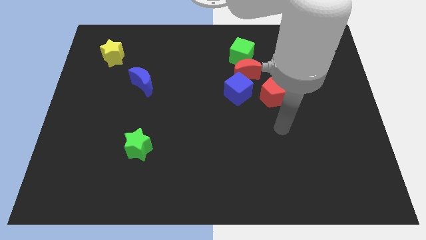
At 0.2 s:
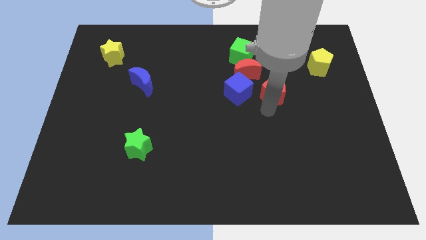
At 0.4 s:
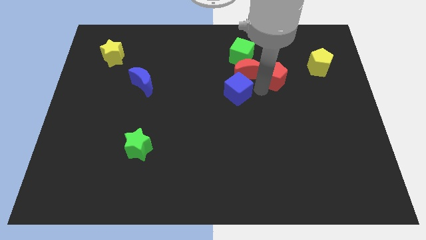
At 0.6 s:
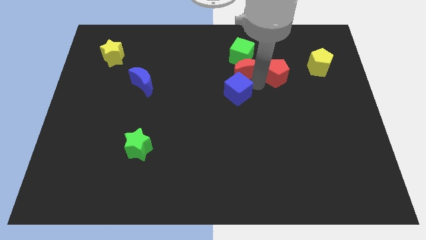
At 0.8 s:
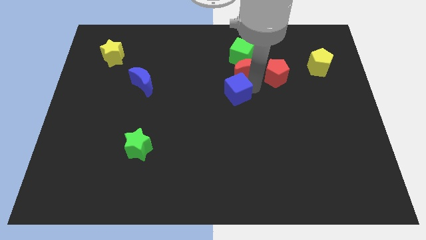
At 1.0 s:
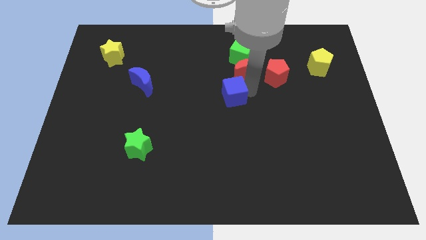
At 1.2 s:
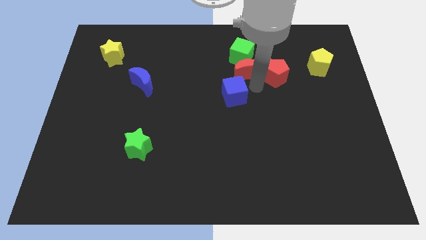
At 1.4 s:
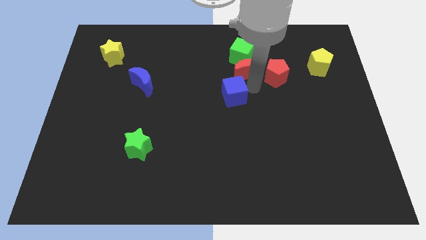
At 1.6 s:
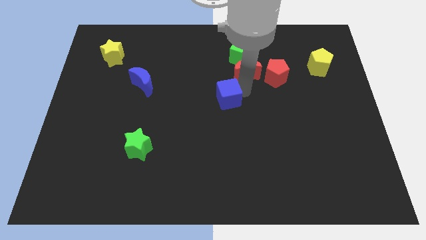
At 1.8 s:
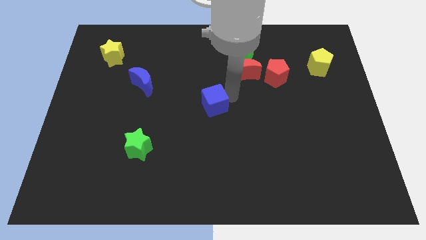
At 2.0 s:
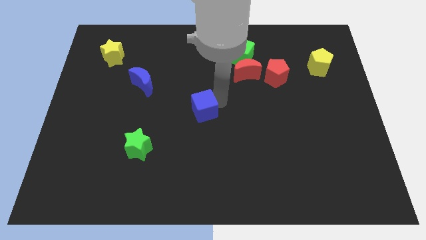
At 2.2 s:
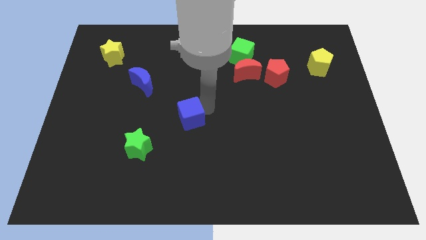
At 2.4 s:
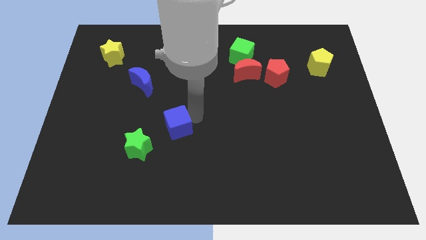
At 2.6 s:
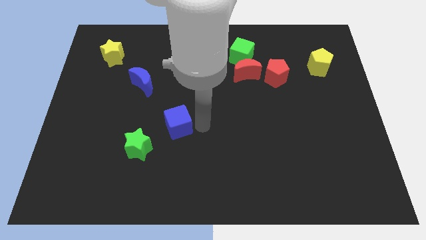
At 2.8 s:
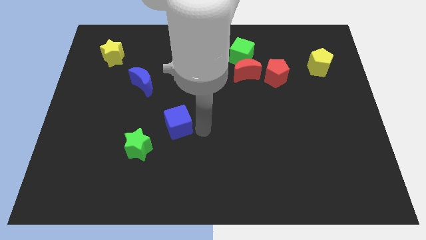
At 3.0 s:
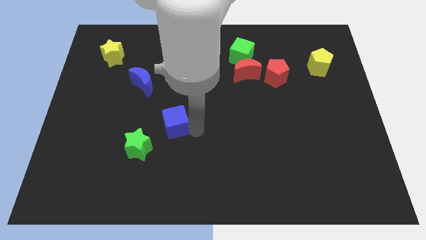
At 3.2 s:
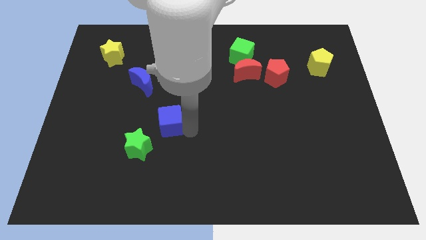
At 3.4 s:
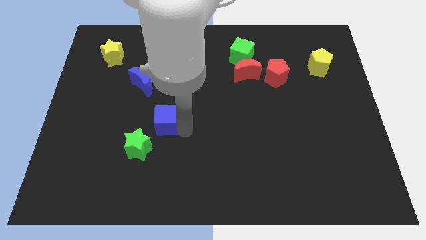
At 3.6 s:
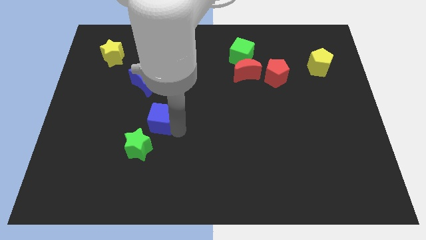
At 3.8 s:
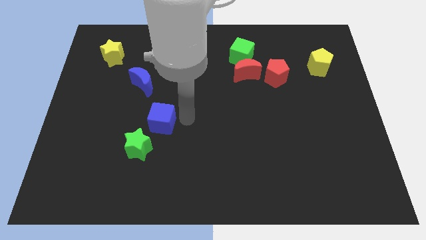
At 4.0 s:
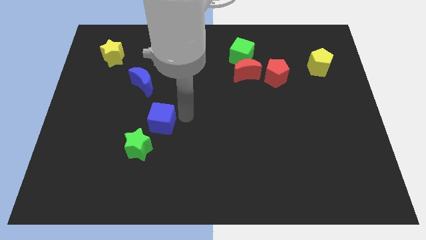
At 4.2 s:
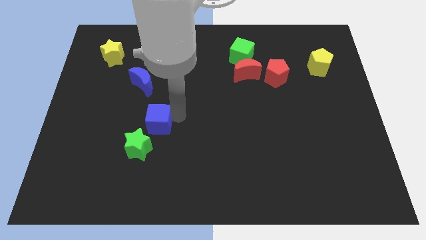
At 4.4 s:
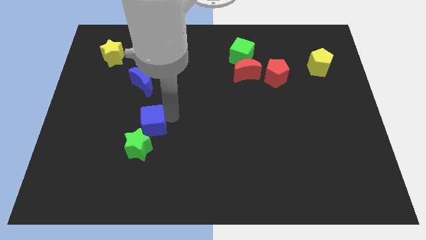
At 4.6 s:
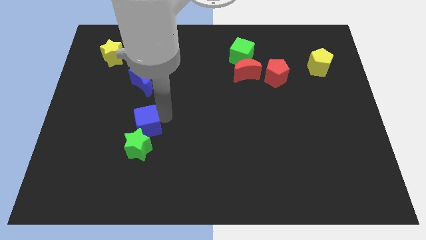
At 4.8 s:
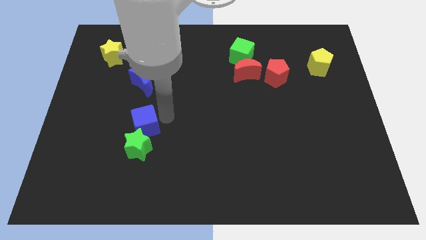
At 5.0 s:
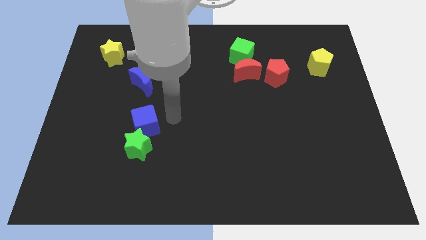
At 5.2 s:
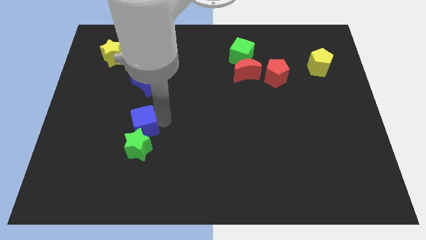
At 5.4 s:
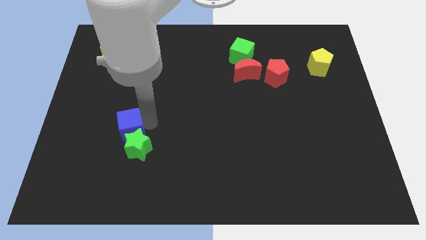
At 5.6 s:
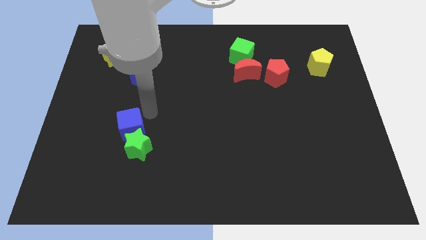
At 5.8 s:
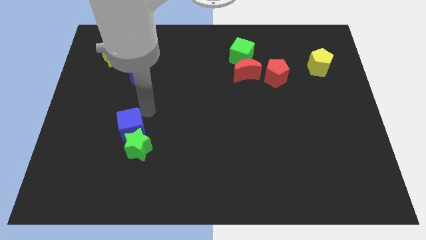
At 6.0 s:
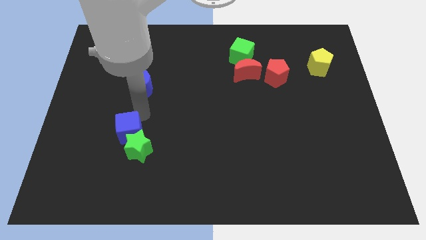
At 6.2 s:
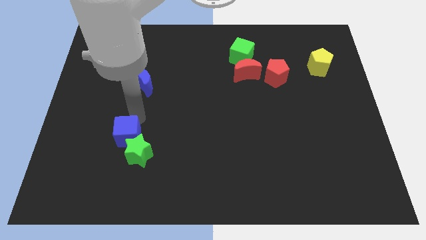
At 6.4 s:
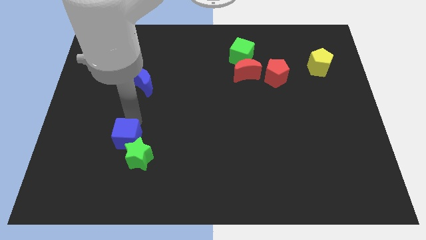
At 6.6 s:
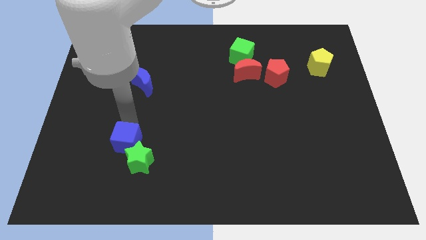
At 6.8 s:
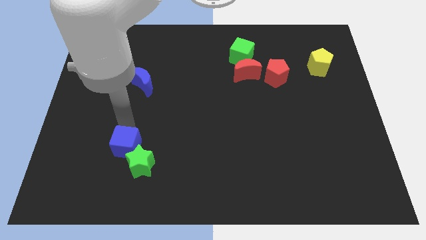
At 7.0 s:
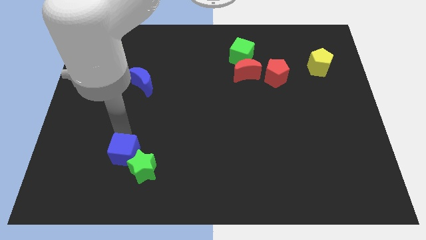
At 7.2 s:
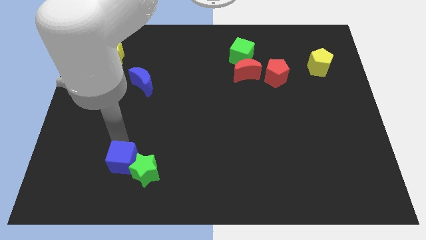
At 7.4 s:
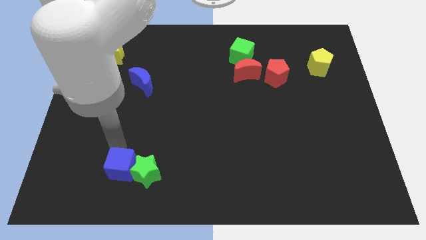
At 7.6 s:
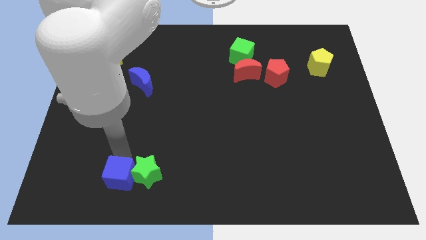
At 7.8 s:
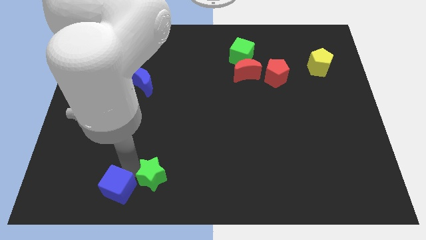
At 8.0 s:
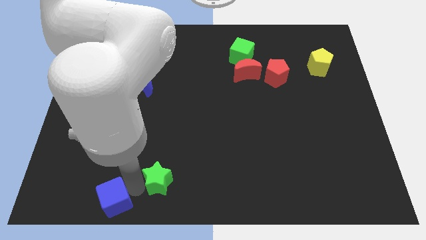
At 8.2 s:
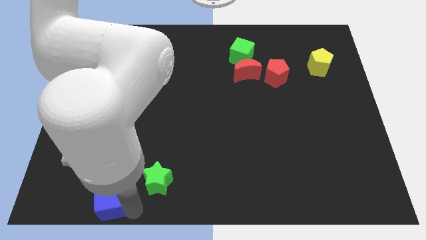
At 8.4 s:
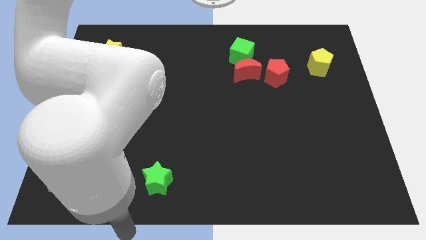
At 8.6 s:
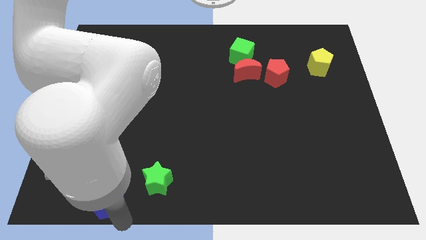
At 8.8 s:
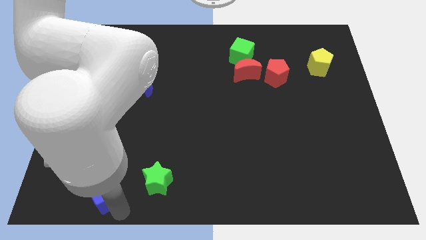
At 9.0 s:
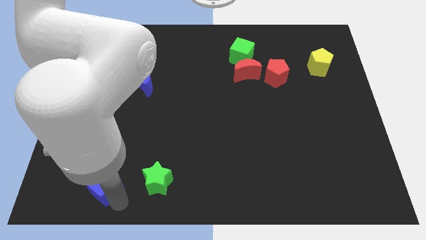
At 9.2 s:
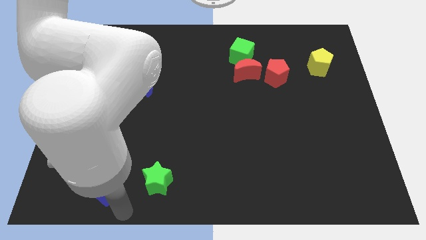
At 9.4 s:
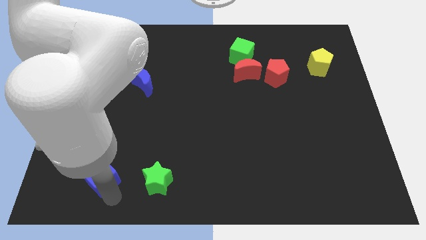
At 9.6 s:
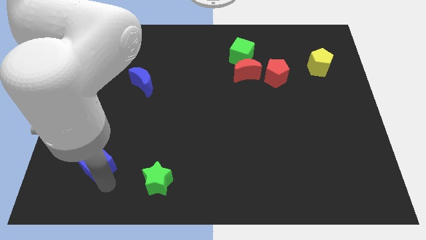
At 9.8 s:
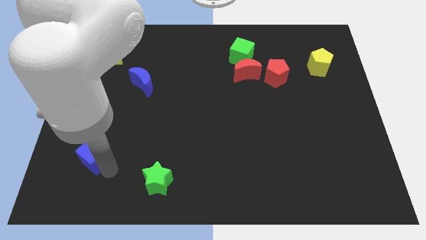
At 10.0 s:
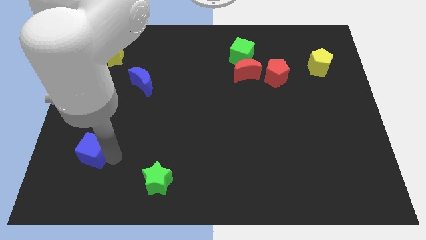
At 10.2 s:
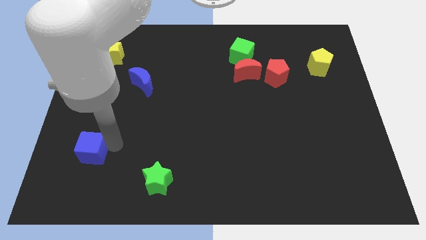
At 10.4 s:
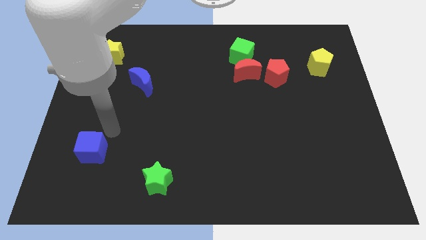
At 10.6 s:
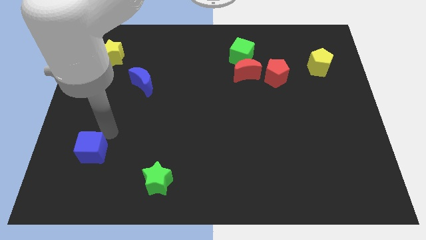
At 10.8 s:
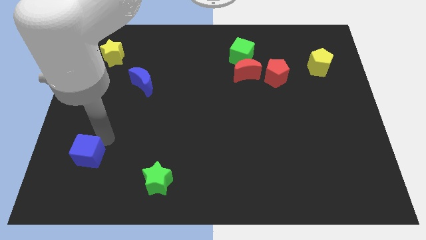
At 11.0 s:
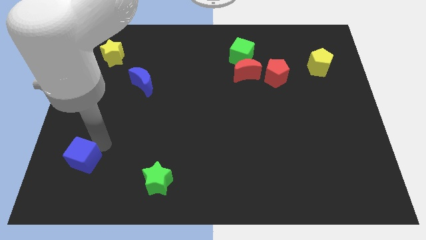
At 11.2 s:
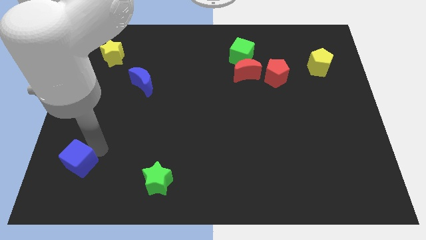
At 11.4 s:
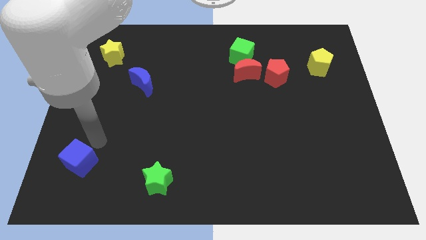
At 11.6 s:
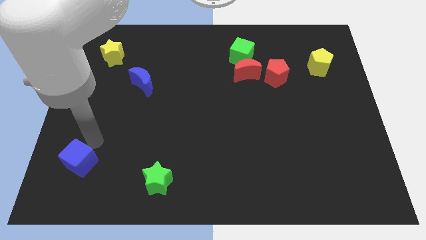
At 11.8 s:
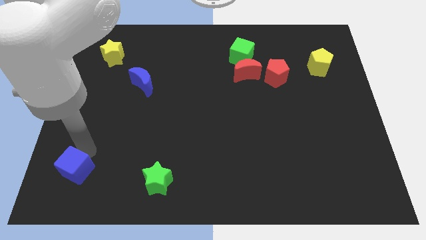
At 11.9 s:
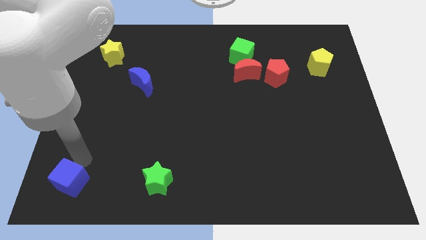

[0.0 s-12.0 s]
put the blue cube to the lower left corner
